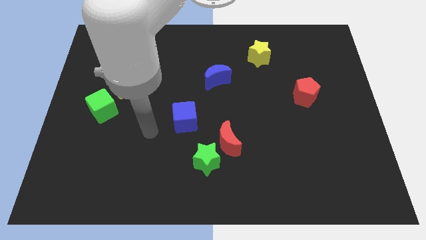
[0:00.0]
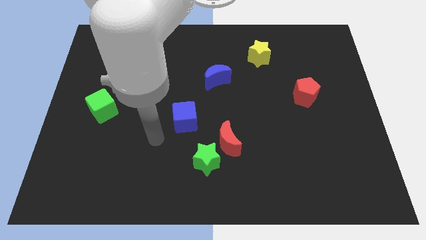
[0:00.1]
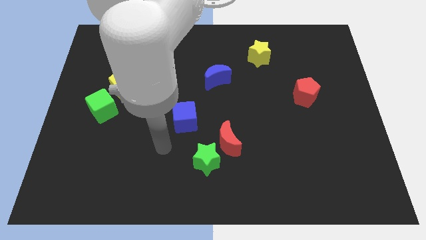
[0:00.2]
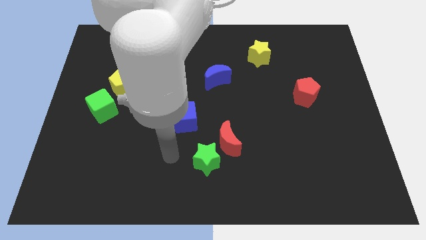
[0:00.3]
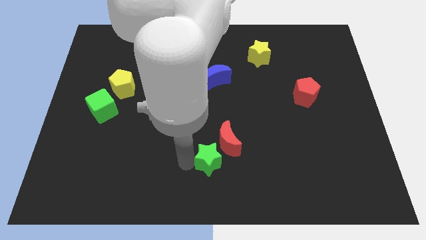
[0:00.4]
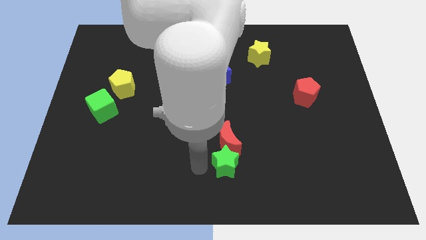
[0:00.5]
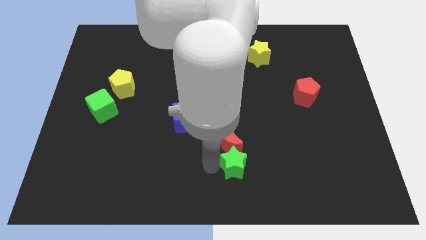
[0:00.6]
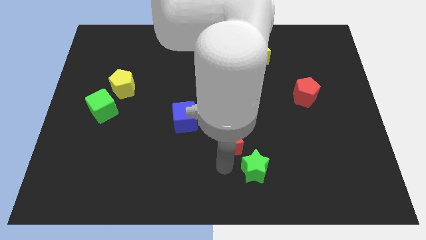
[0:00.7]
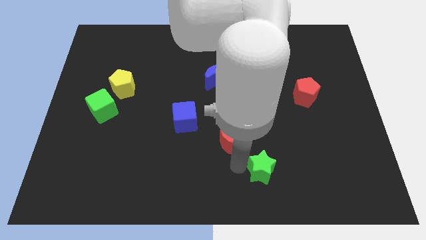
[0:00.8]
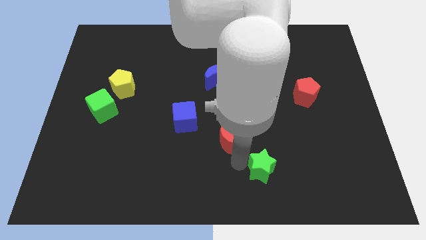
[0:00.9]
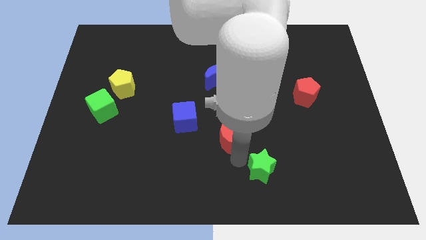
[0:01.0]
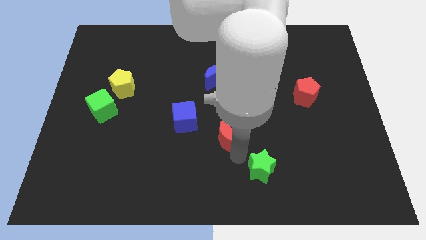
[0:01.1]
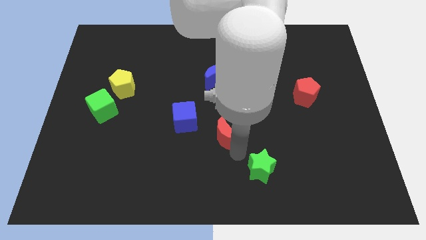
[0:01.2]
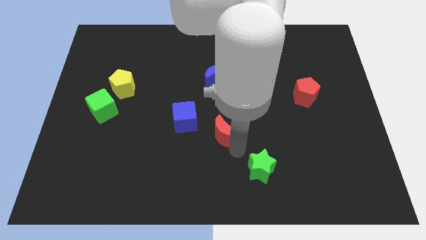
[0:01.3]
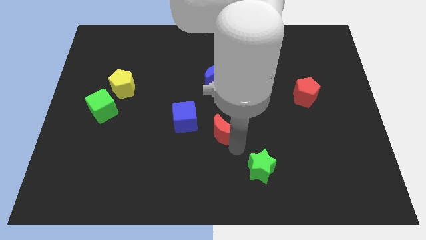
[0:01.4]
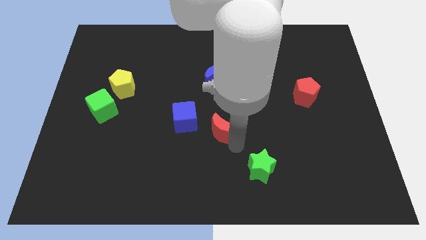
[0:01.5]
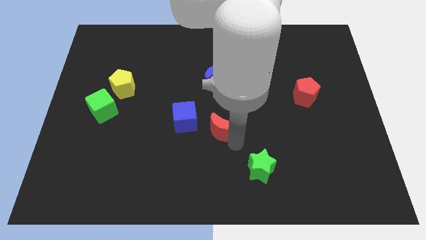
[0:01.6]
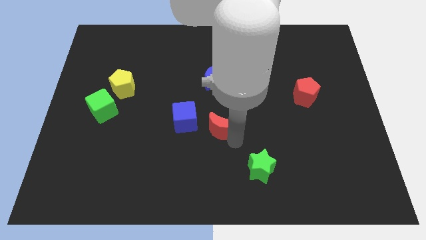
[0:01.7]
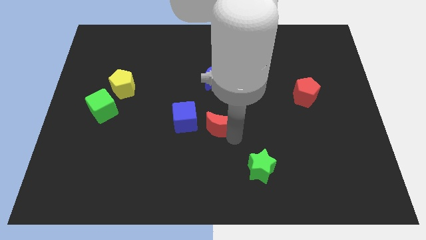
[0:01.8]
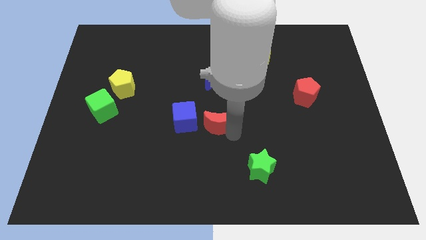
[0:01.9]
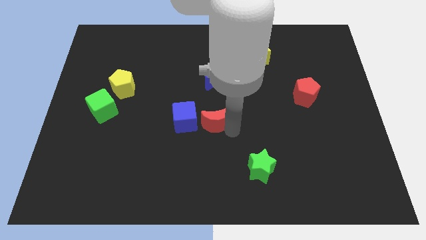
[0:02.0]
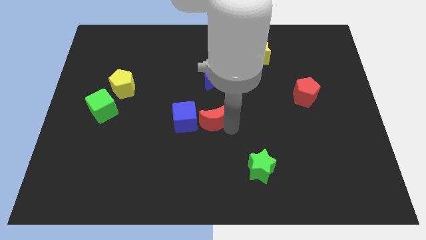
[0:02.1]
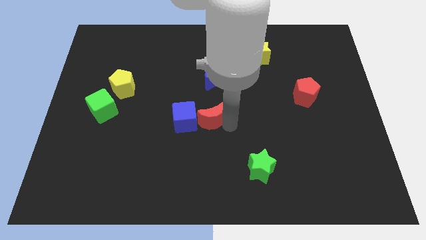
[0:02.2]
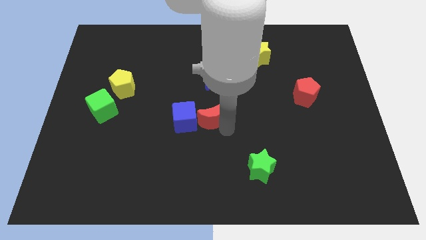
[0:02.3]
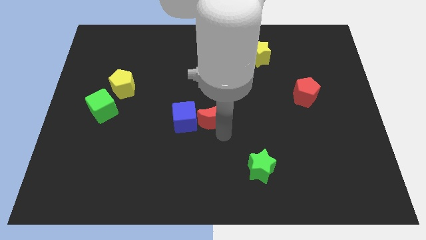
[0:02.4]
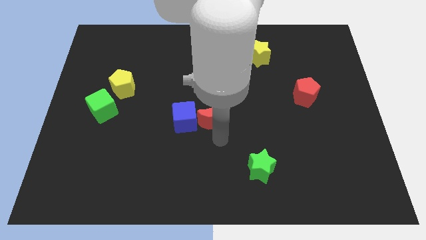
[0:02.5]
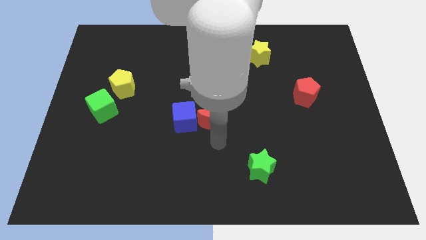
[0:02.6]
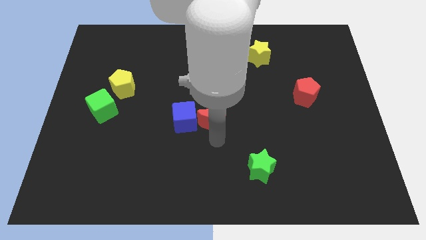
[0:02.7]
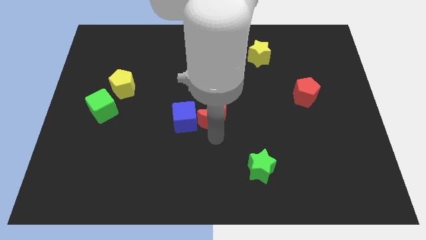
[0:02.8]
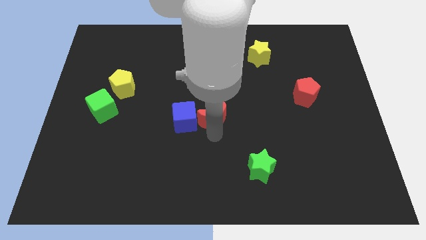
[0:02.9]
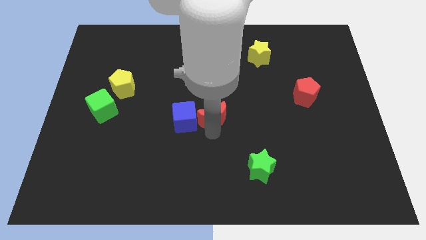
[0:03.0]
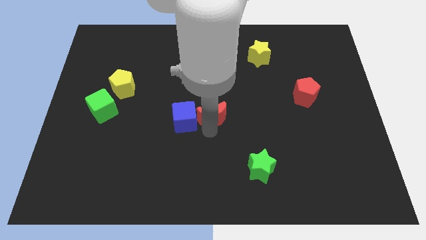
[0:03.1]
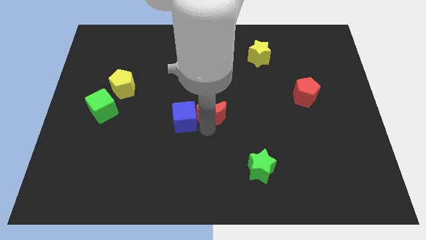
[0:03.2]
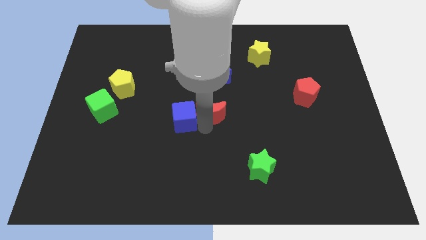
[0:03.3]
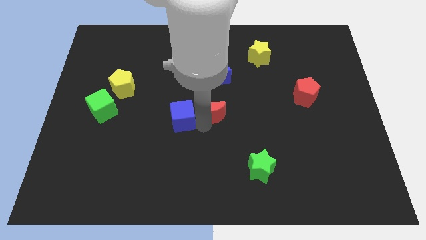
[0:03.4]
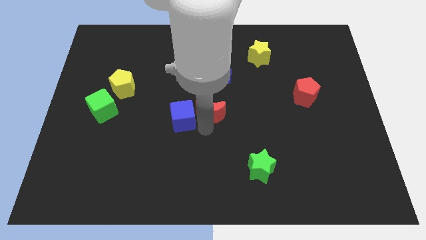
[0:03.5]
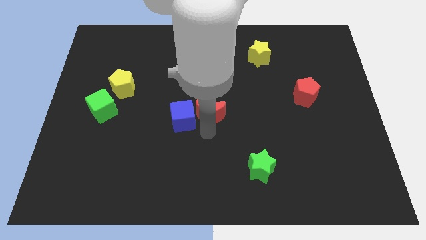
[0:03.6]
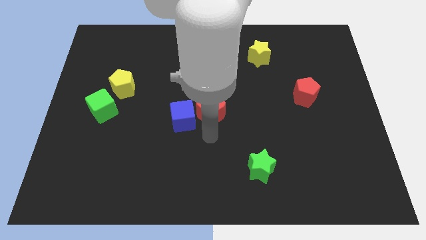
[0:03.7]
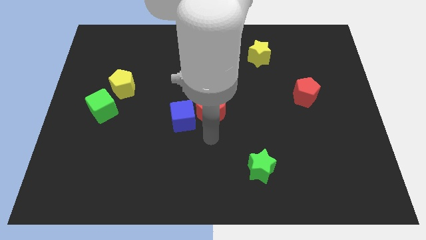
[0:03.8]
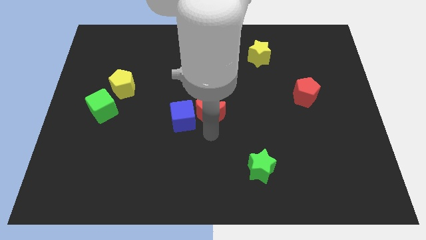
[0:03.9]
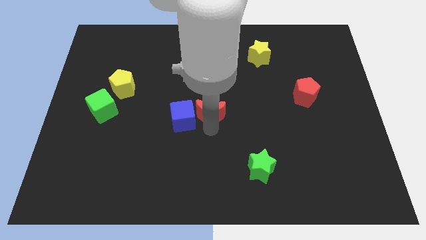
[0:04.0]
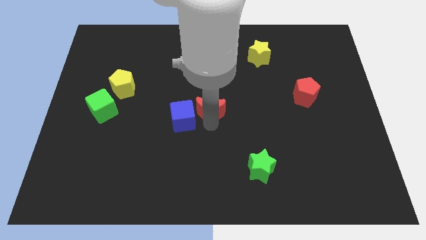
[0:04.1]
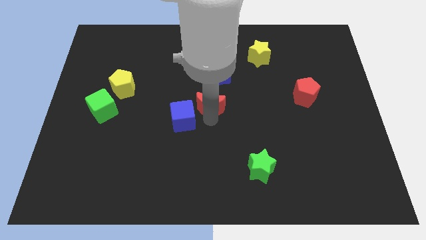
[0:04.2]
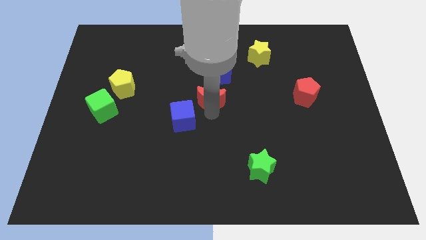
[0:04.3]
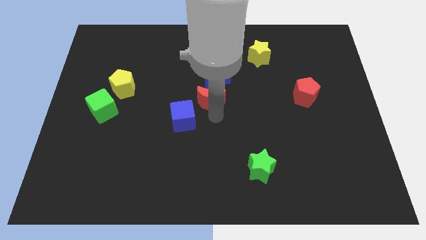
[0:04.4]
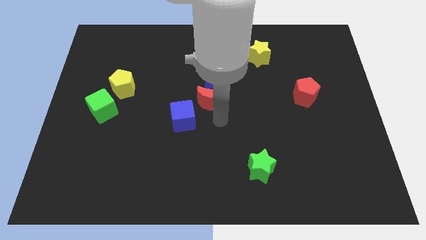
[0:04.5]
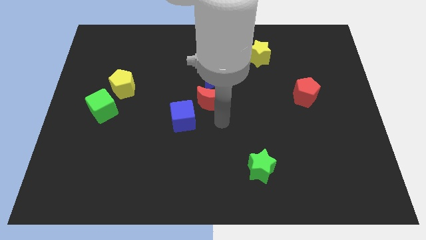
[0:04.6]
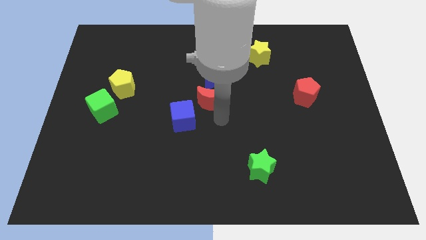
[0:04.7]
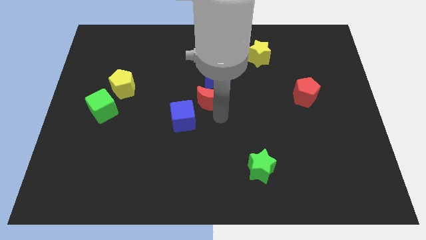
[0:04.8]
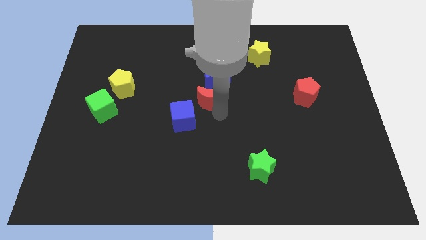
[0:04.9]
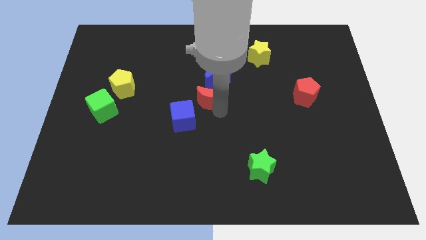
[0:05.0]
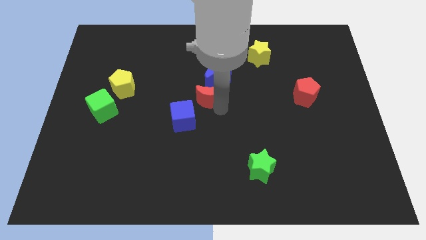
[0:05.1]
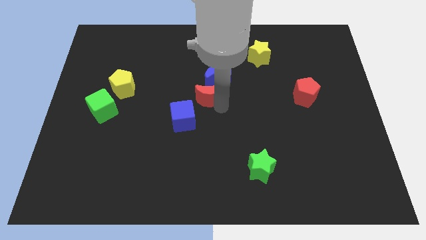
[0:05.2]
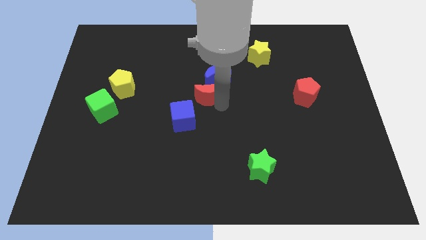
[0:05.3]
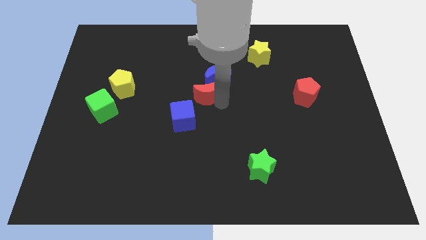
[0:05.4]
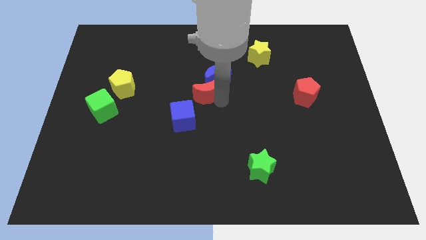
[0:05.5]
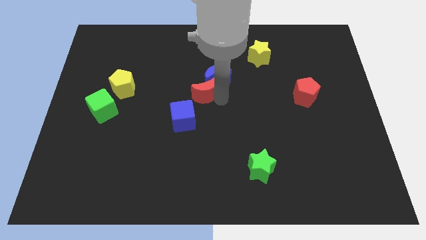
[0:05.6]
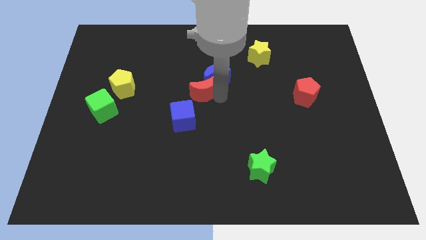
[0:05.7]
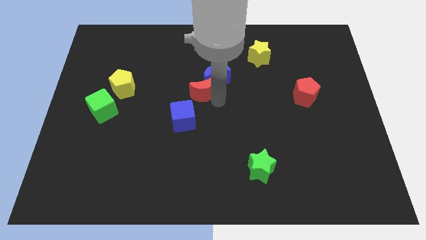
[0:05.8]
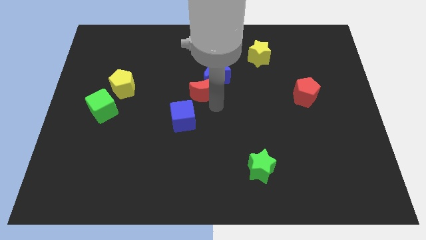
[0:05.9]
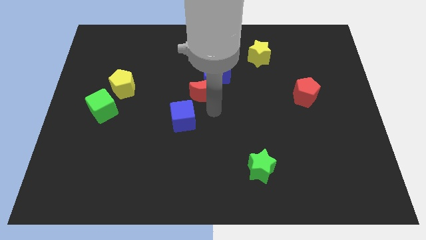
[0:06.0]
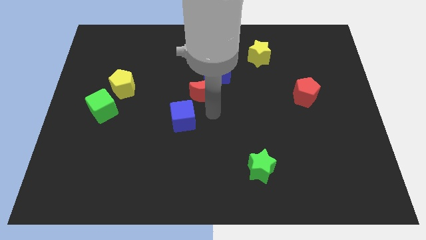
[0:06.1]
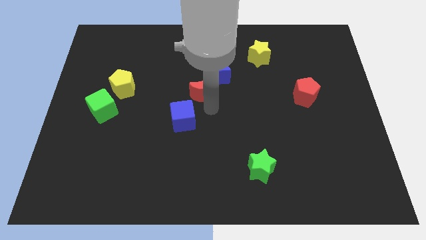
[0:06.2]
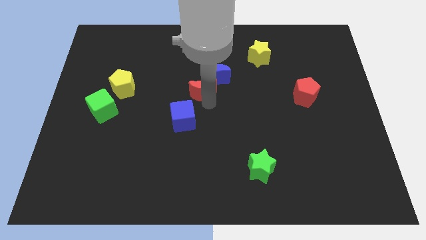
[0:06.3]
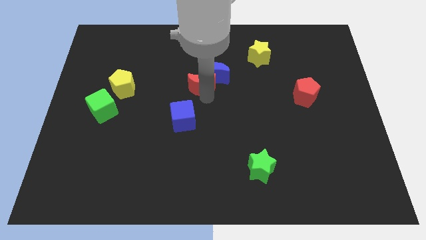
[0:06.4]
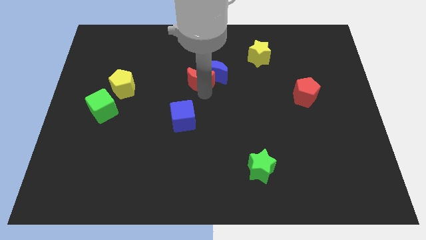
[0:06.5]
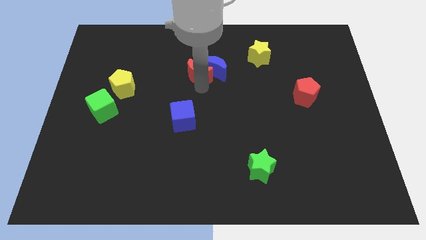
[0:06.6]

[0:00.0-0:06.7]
slide the red moon to the top left of the blue moon
